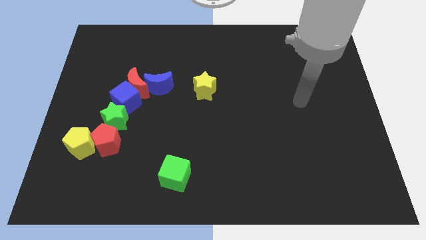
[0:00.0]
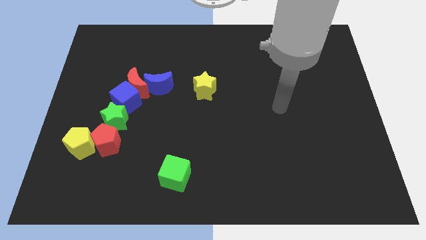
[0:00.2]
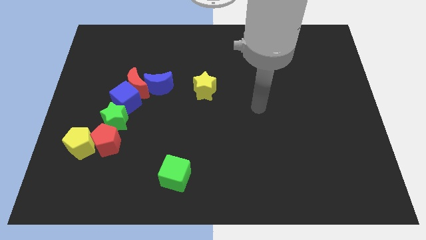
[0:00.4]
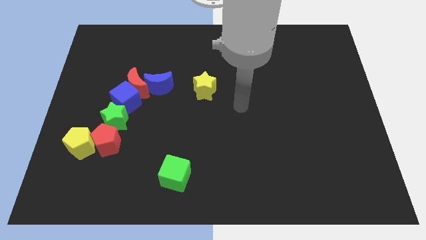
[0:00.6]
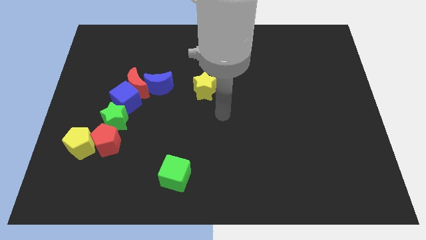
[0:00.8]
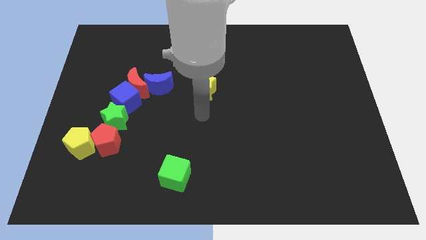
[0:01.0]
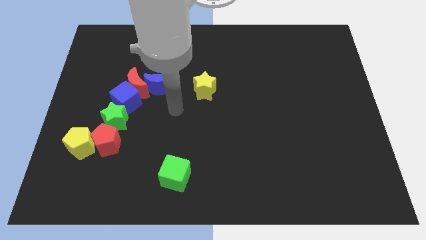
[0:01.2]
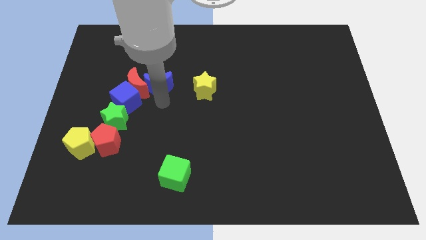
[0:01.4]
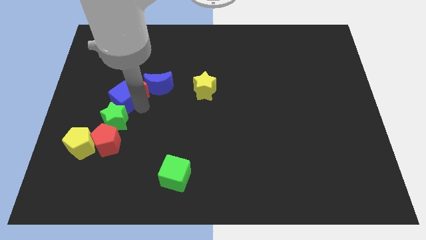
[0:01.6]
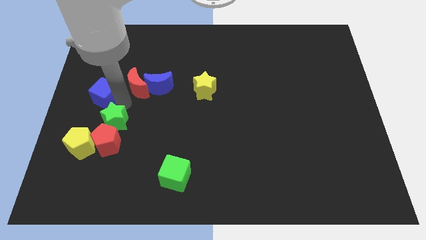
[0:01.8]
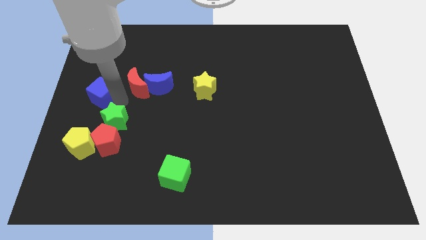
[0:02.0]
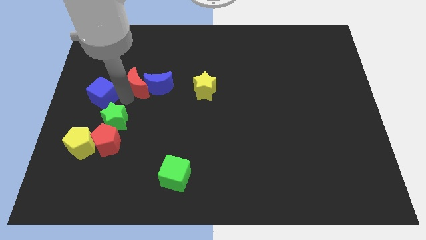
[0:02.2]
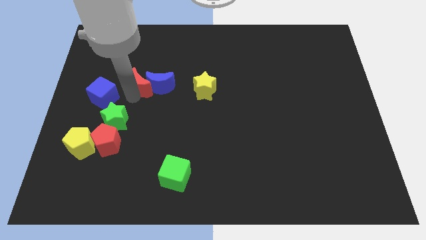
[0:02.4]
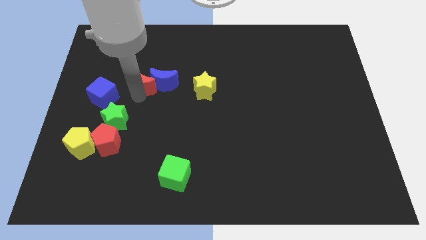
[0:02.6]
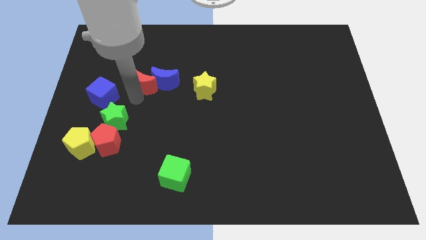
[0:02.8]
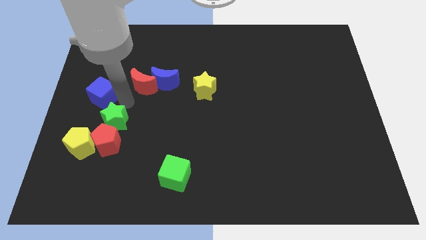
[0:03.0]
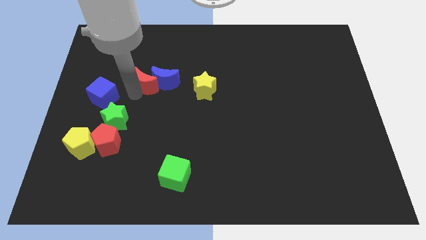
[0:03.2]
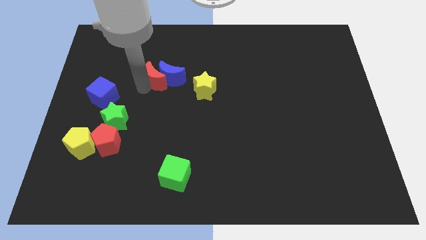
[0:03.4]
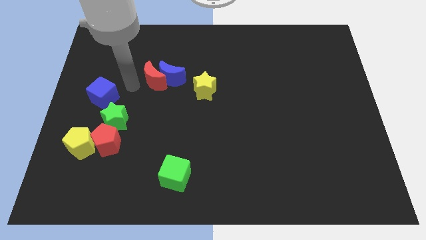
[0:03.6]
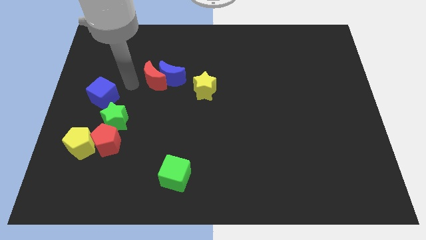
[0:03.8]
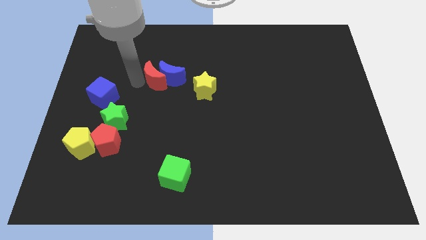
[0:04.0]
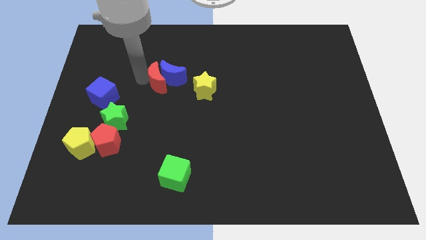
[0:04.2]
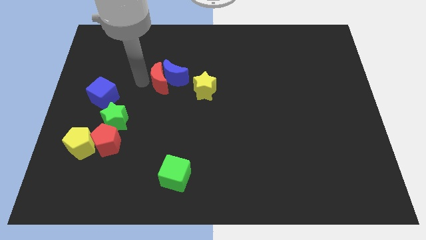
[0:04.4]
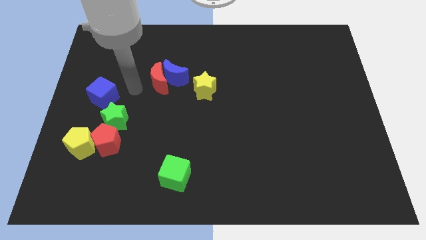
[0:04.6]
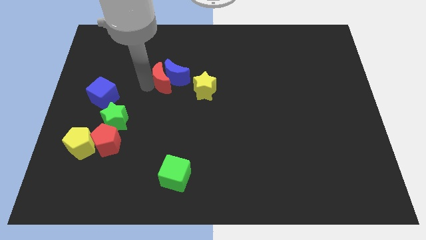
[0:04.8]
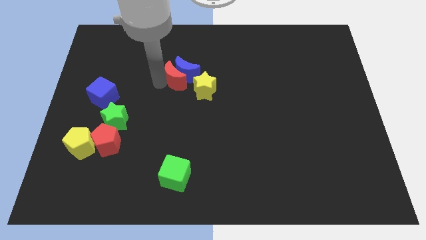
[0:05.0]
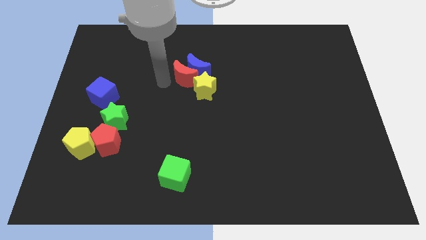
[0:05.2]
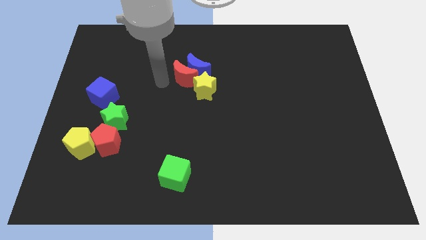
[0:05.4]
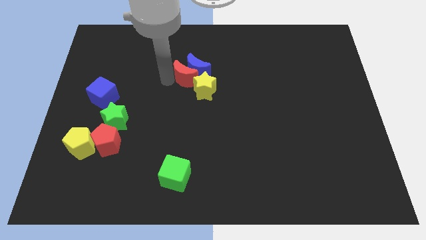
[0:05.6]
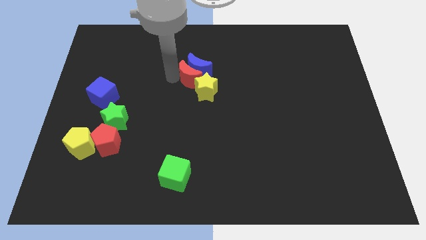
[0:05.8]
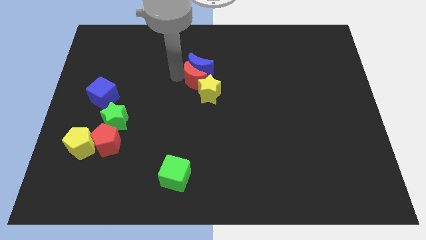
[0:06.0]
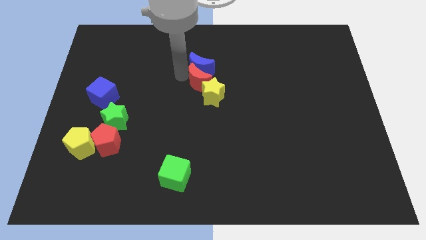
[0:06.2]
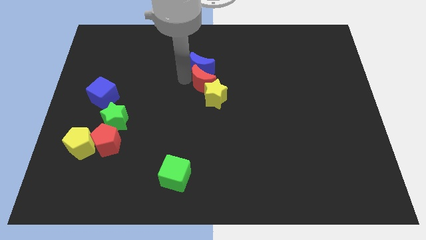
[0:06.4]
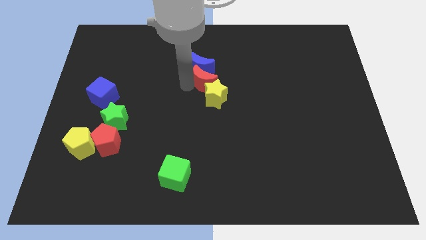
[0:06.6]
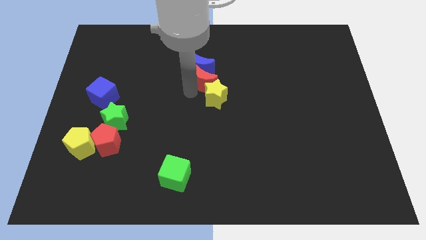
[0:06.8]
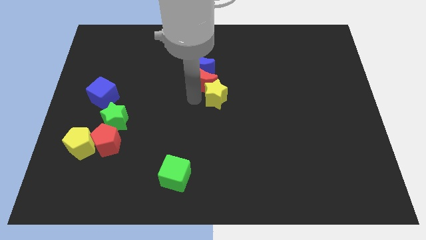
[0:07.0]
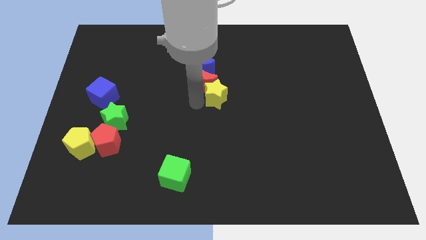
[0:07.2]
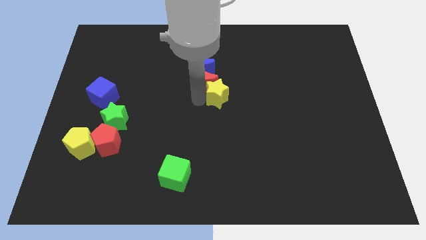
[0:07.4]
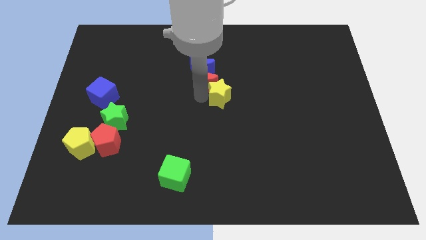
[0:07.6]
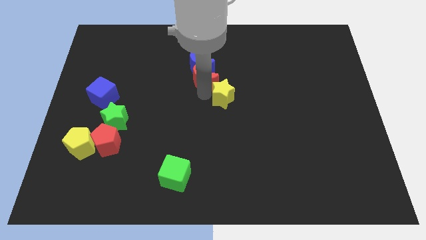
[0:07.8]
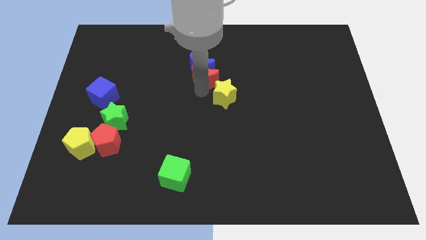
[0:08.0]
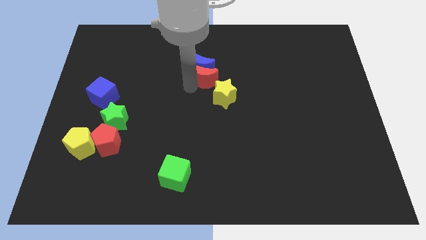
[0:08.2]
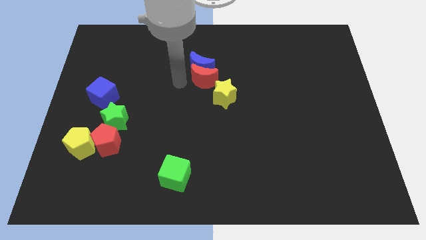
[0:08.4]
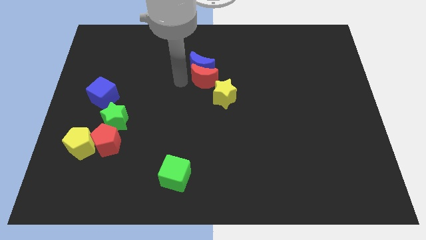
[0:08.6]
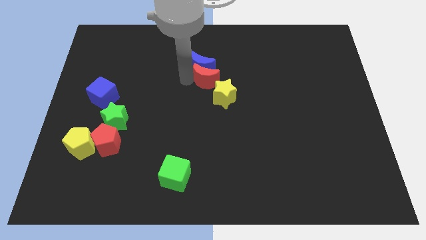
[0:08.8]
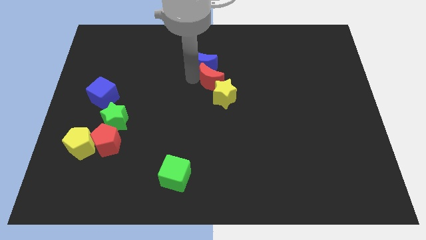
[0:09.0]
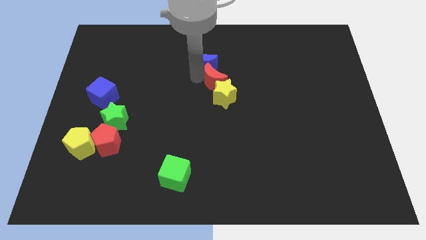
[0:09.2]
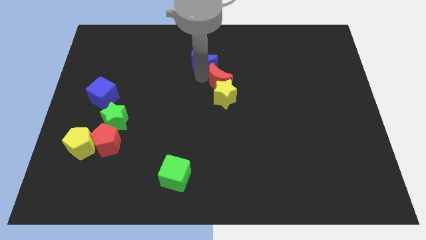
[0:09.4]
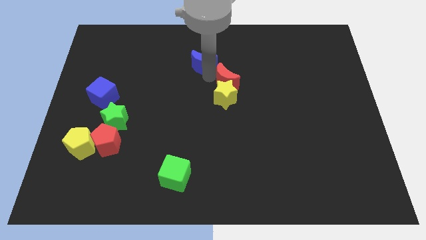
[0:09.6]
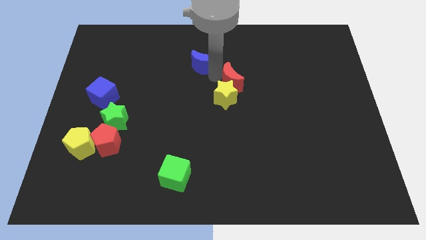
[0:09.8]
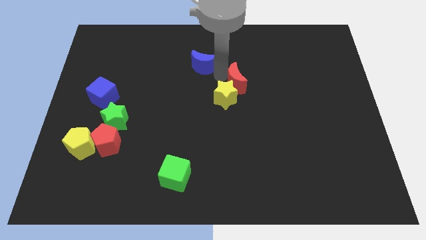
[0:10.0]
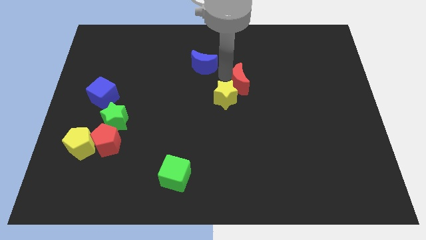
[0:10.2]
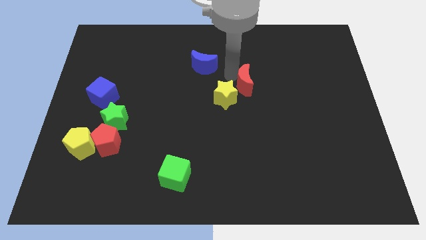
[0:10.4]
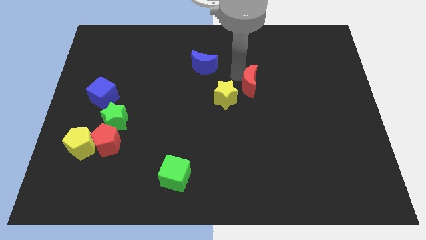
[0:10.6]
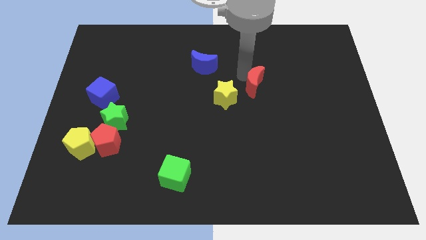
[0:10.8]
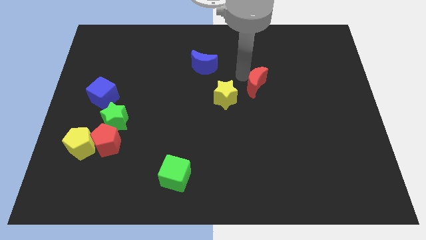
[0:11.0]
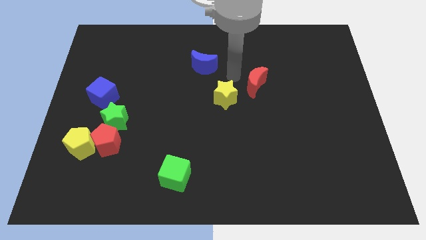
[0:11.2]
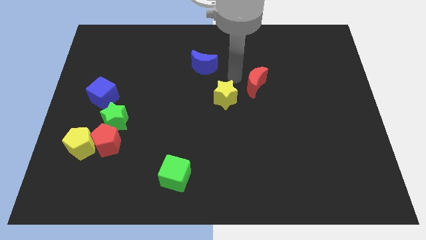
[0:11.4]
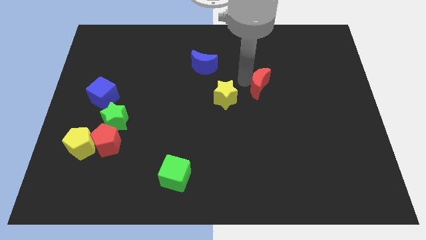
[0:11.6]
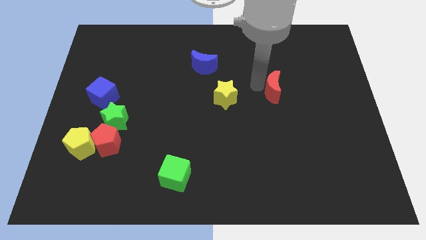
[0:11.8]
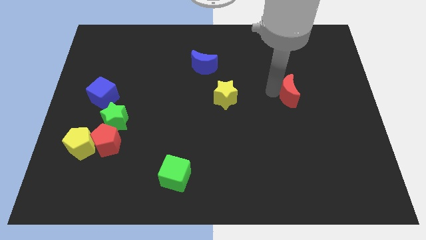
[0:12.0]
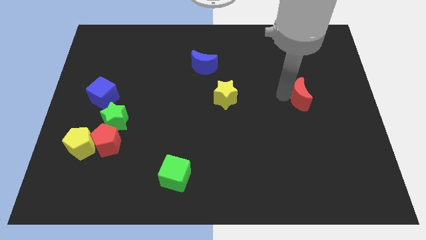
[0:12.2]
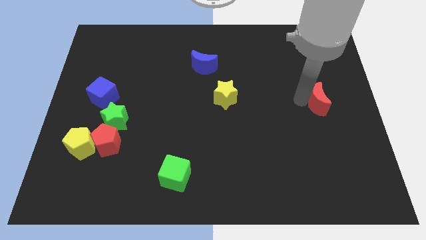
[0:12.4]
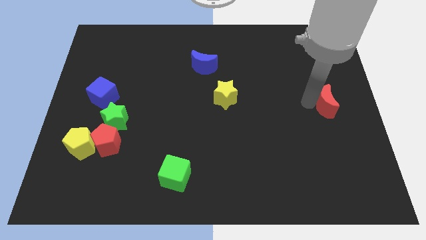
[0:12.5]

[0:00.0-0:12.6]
push the red moon to the right side of the board
